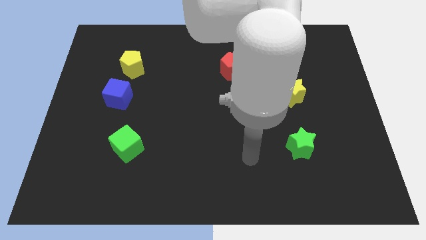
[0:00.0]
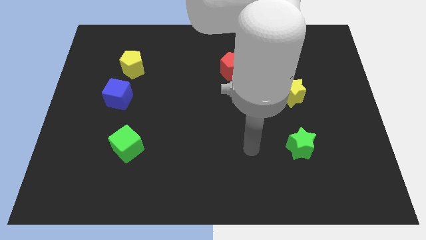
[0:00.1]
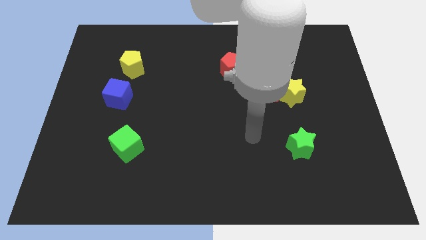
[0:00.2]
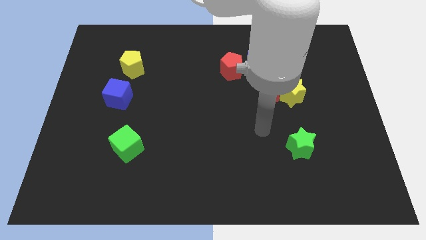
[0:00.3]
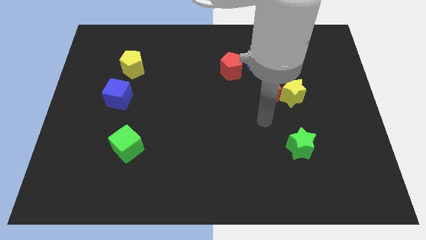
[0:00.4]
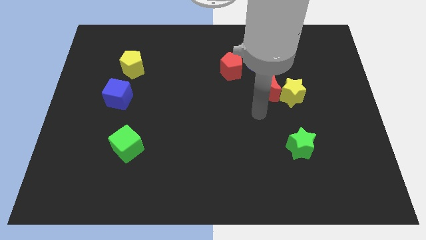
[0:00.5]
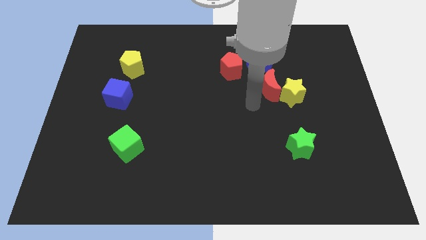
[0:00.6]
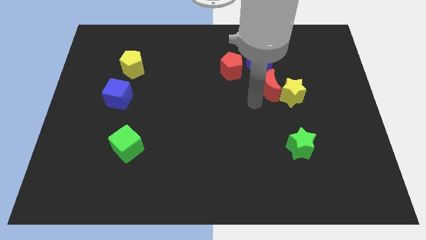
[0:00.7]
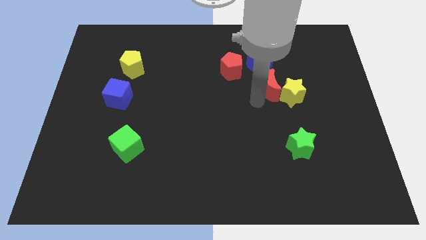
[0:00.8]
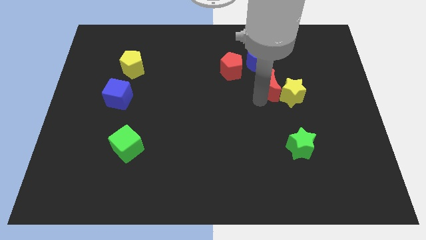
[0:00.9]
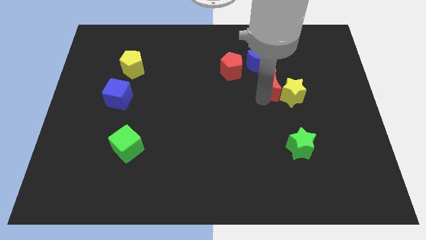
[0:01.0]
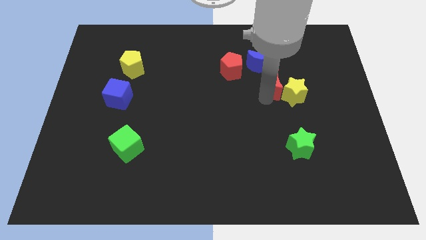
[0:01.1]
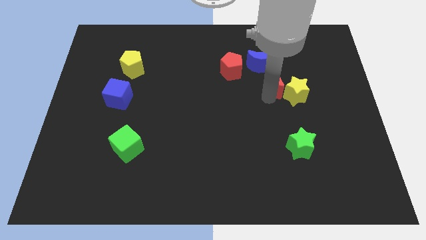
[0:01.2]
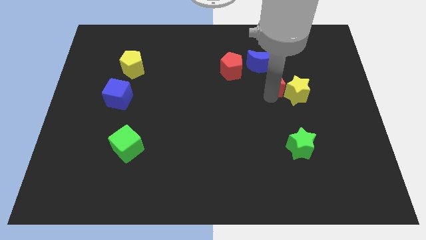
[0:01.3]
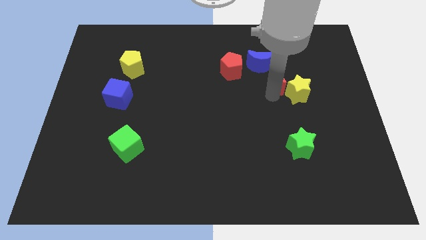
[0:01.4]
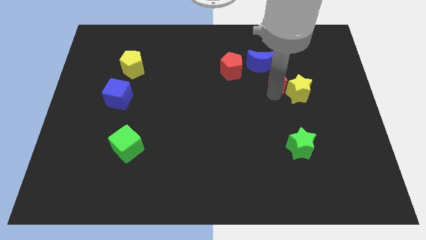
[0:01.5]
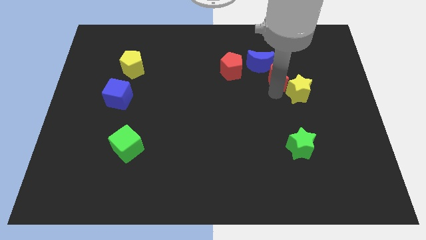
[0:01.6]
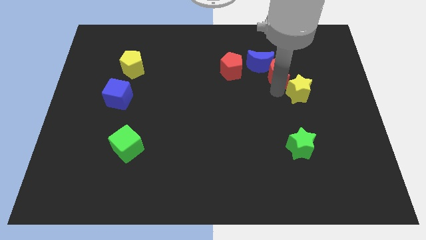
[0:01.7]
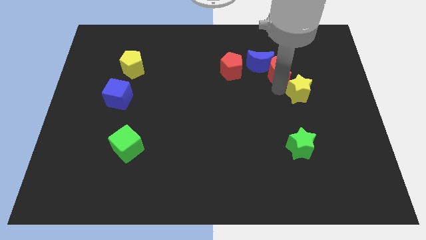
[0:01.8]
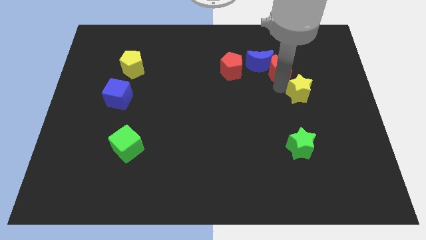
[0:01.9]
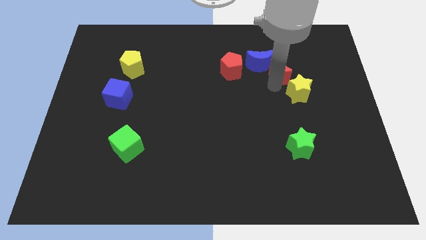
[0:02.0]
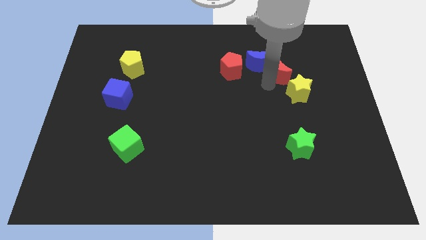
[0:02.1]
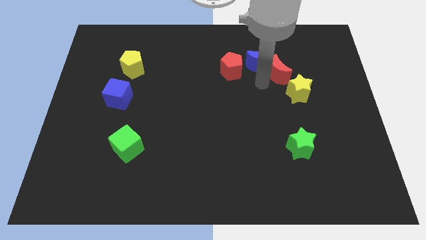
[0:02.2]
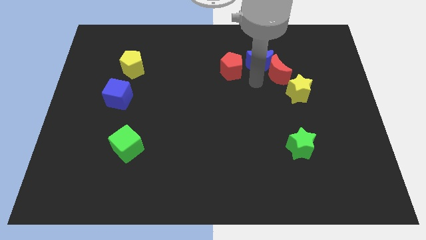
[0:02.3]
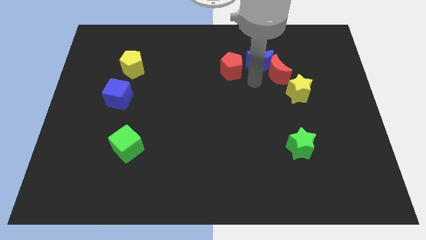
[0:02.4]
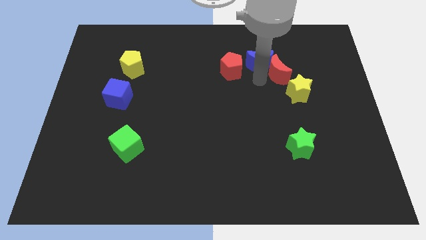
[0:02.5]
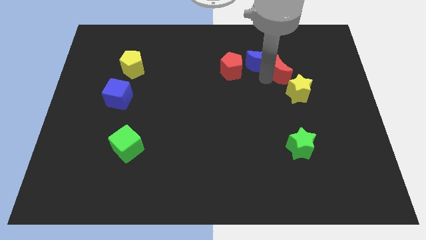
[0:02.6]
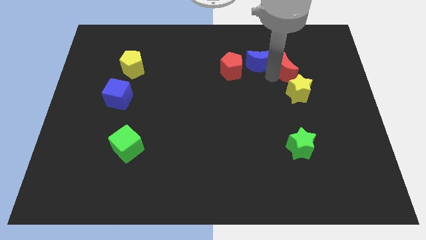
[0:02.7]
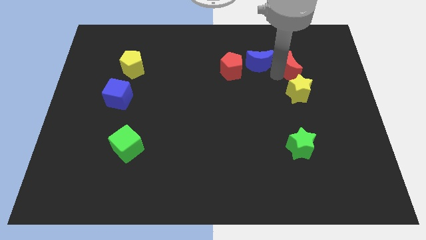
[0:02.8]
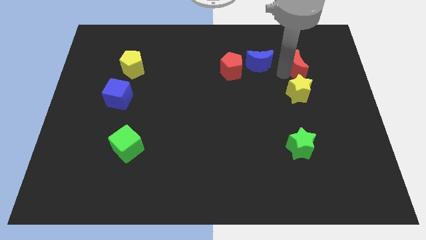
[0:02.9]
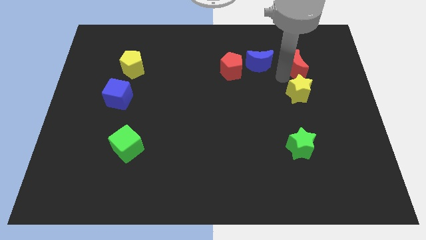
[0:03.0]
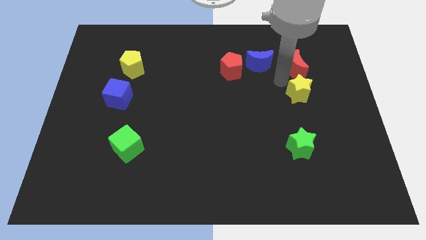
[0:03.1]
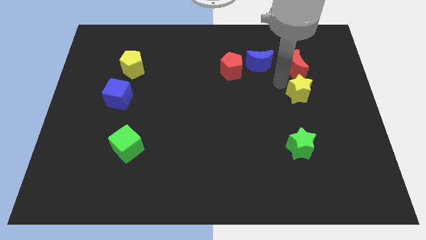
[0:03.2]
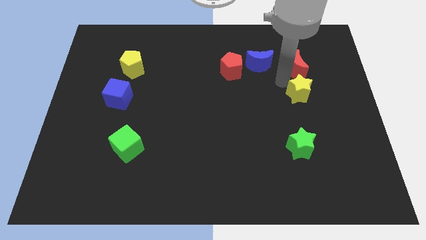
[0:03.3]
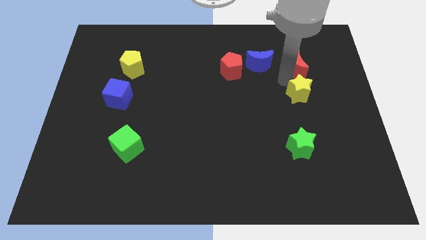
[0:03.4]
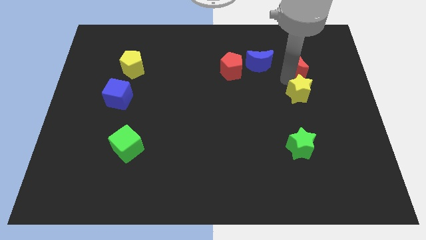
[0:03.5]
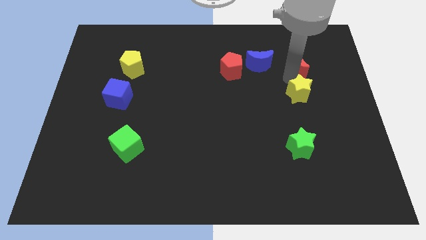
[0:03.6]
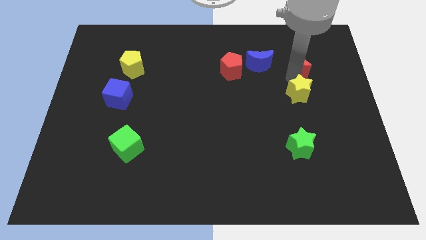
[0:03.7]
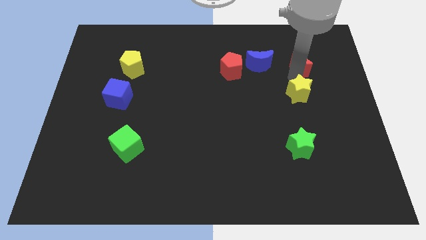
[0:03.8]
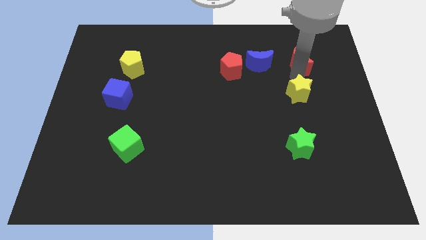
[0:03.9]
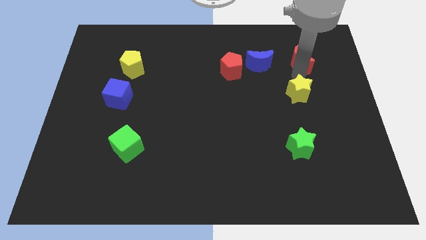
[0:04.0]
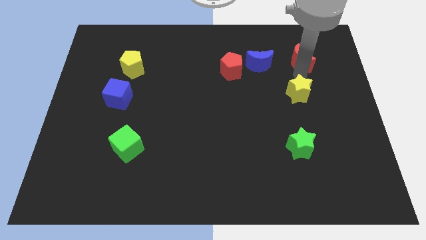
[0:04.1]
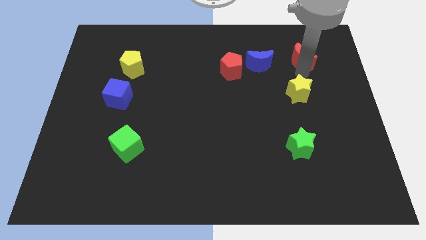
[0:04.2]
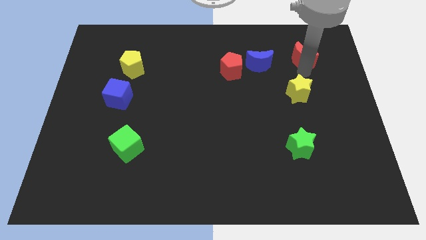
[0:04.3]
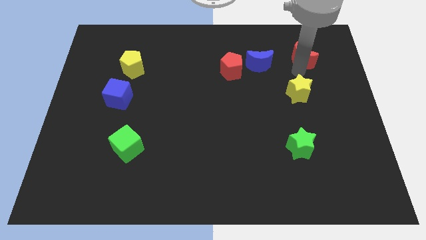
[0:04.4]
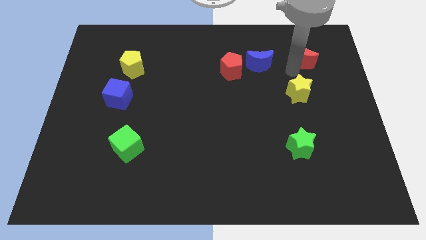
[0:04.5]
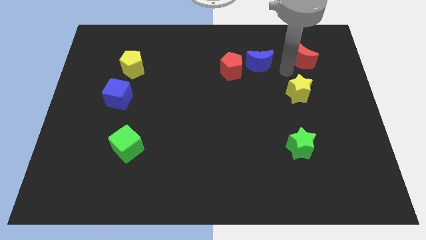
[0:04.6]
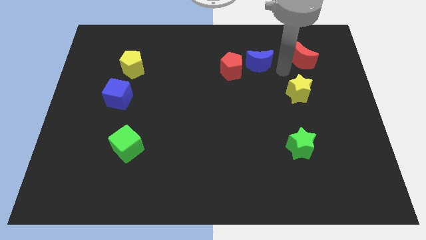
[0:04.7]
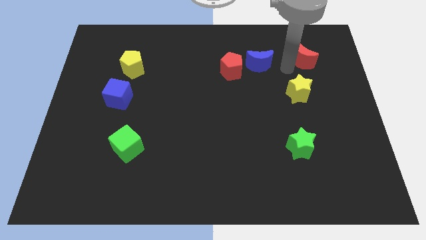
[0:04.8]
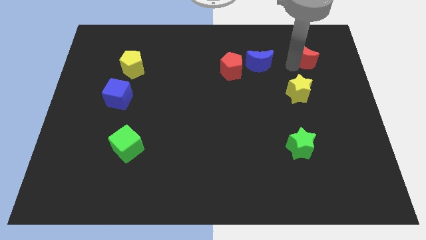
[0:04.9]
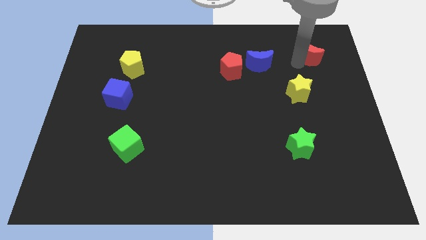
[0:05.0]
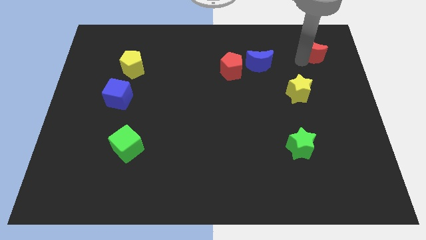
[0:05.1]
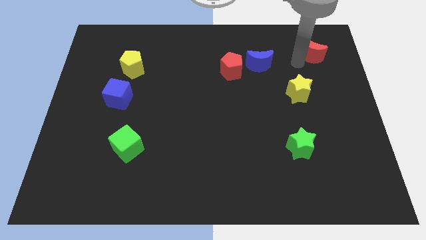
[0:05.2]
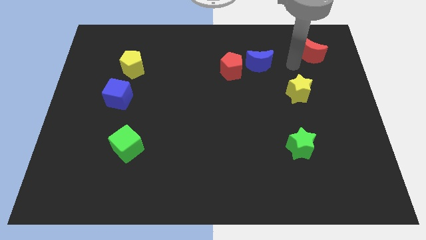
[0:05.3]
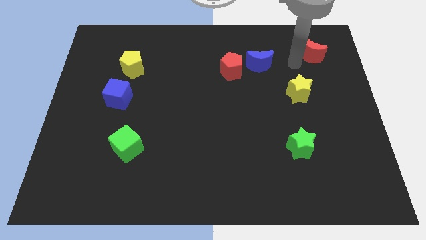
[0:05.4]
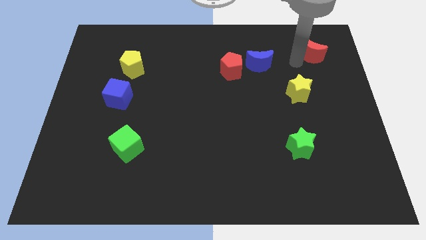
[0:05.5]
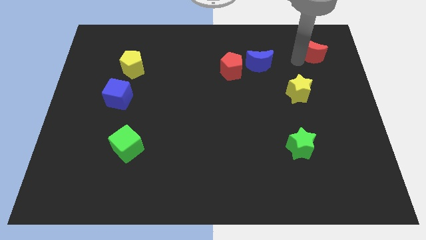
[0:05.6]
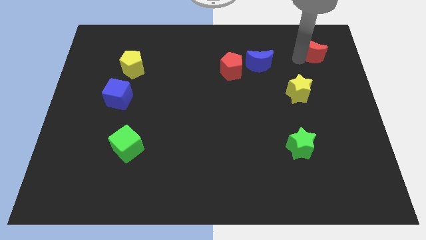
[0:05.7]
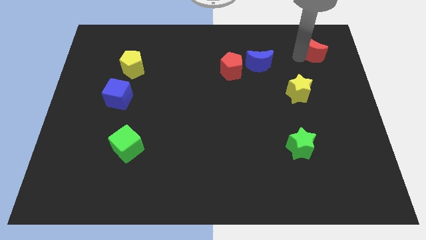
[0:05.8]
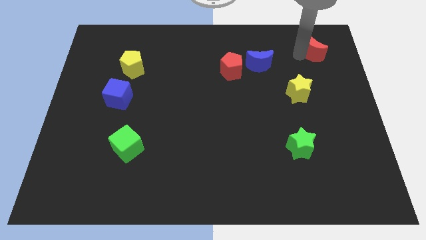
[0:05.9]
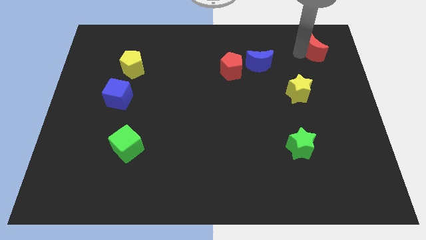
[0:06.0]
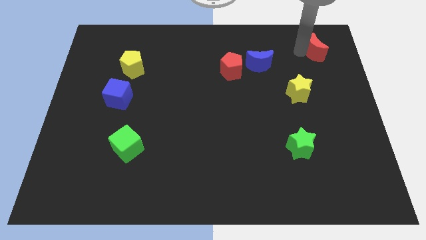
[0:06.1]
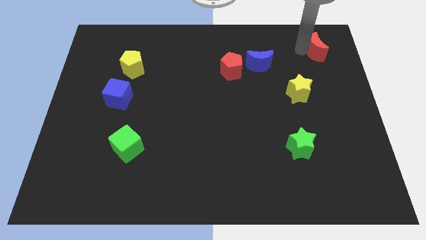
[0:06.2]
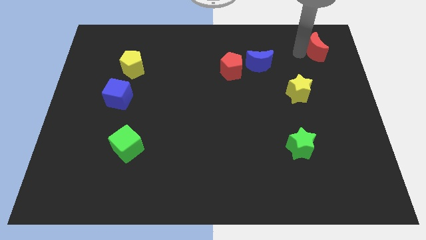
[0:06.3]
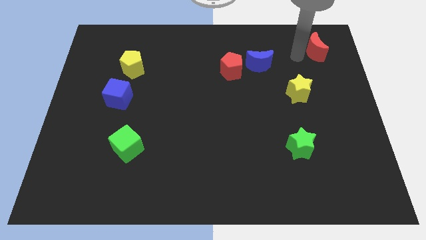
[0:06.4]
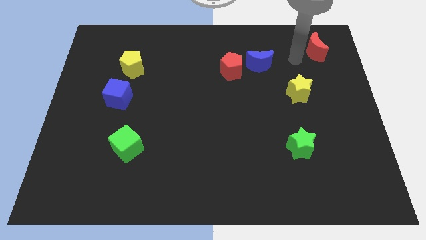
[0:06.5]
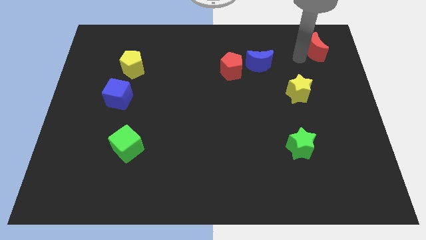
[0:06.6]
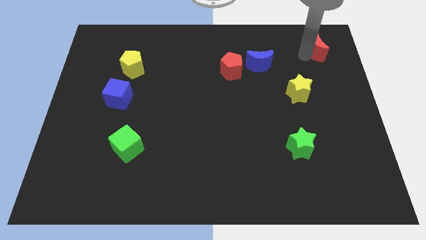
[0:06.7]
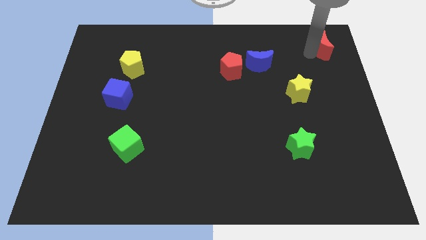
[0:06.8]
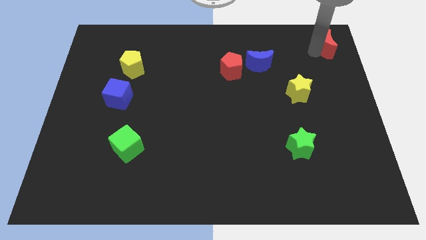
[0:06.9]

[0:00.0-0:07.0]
move the red moon to the top right corner
